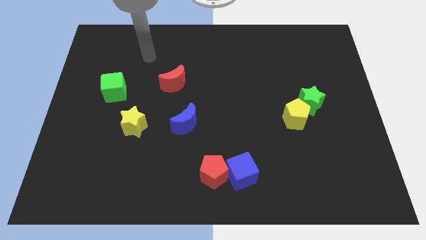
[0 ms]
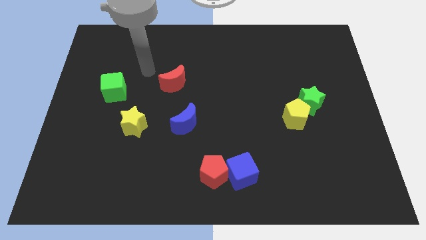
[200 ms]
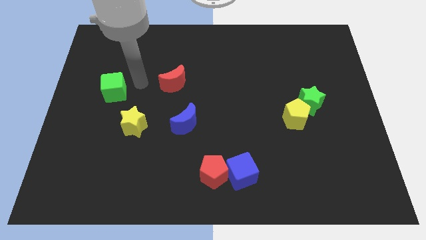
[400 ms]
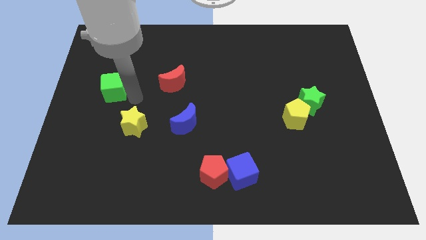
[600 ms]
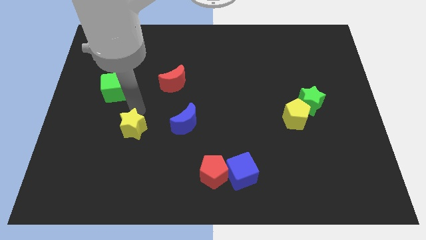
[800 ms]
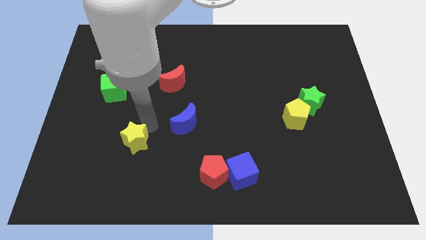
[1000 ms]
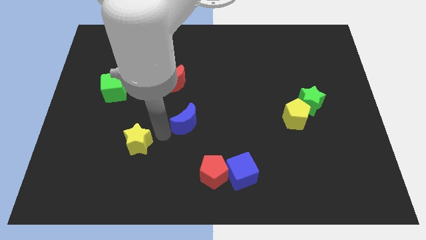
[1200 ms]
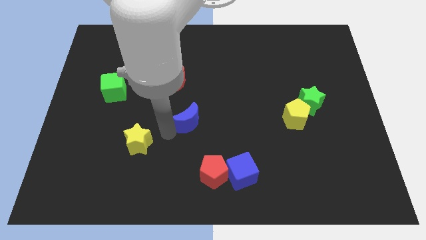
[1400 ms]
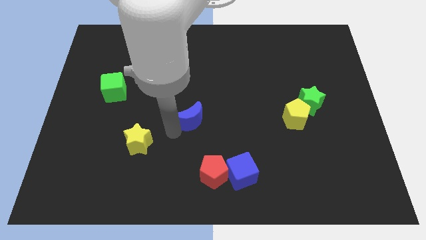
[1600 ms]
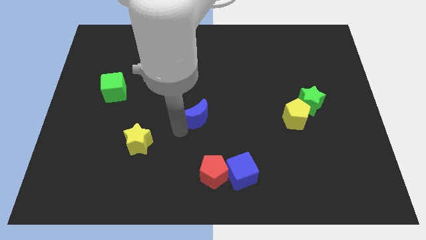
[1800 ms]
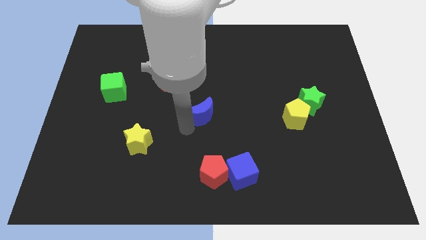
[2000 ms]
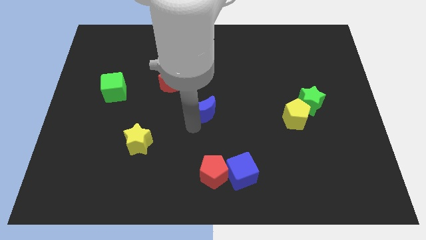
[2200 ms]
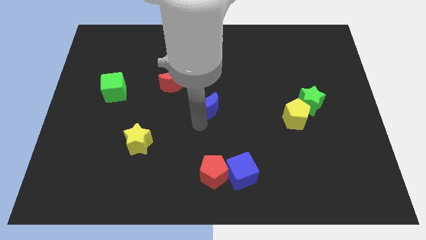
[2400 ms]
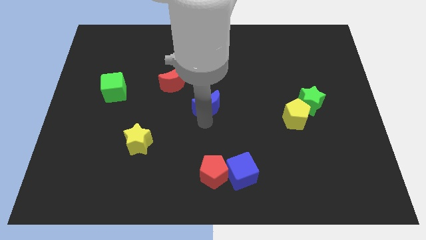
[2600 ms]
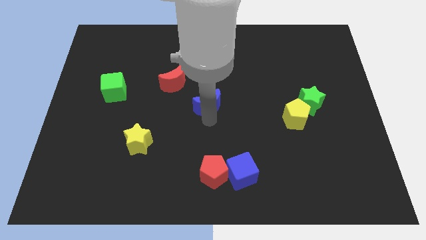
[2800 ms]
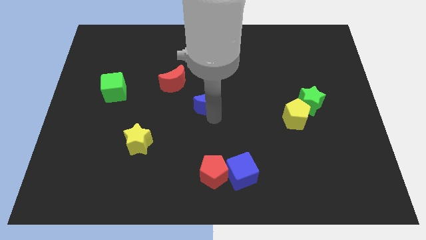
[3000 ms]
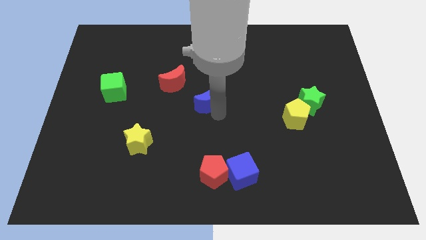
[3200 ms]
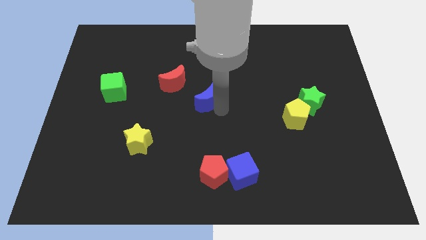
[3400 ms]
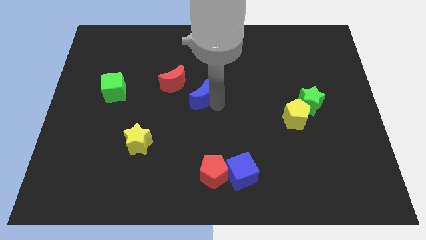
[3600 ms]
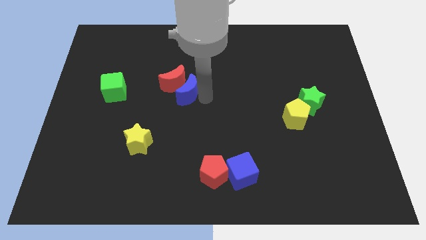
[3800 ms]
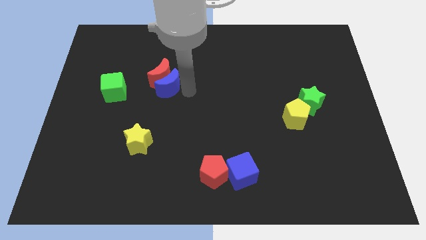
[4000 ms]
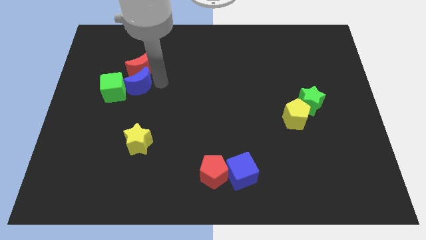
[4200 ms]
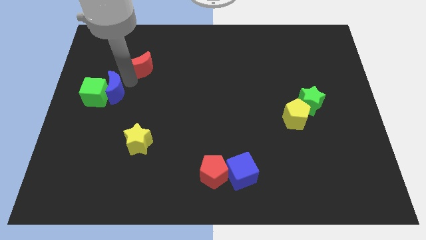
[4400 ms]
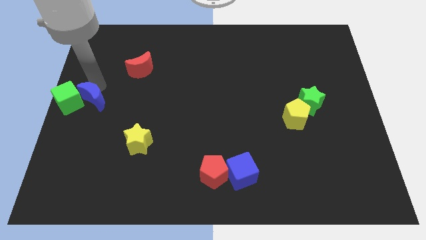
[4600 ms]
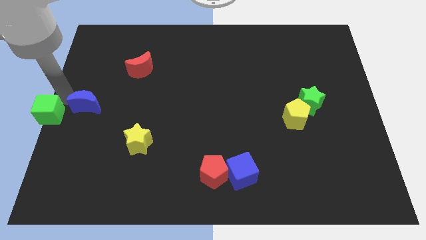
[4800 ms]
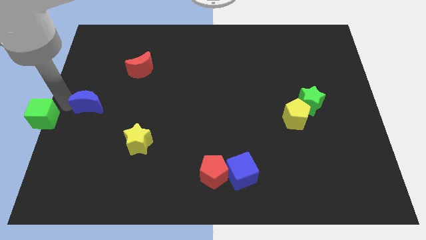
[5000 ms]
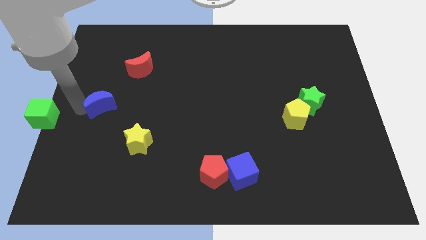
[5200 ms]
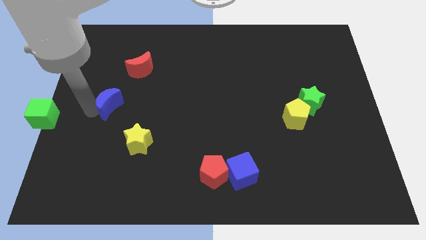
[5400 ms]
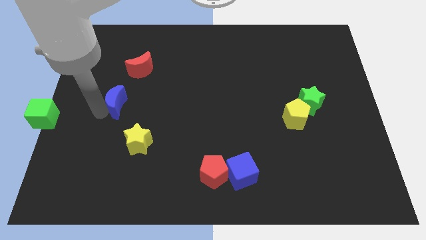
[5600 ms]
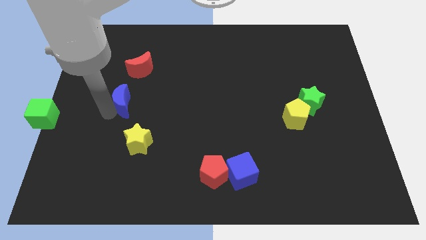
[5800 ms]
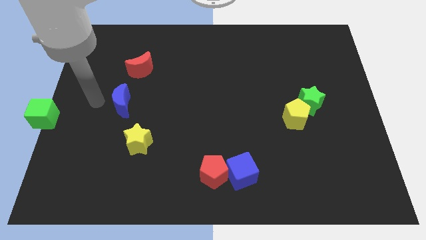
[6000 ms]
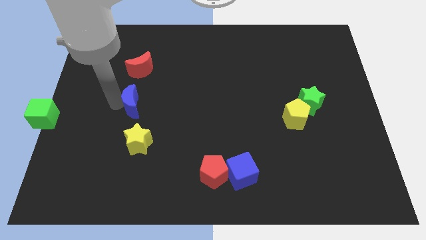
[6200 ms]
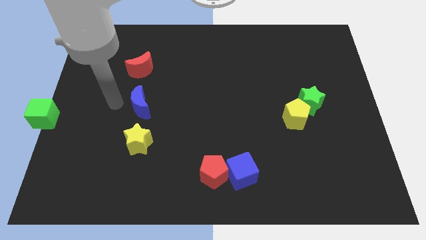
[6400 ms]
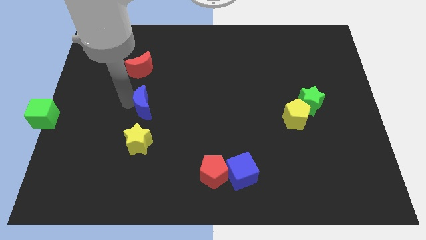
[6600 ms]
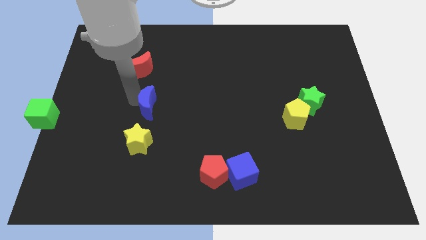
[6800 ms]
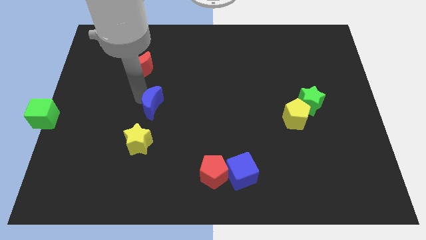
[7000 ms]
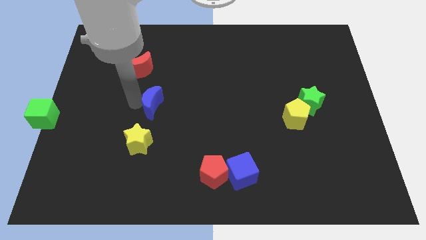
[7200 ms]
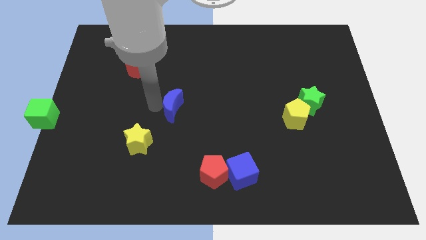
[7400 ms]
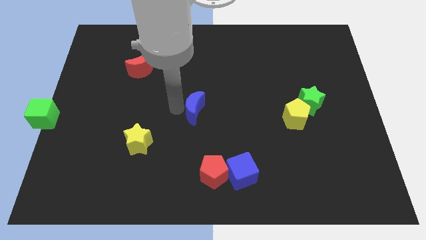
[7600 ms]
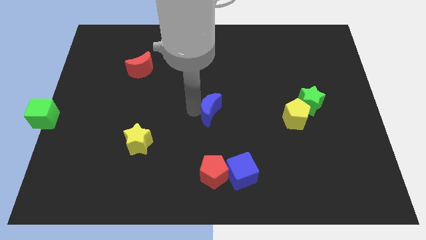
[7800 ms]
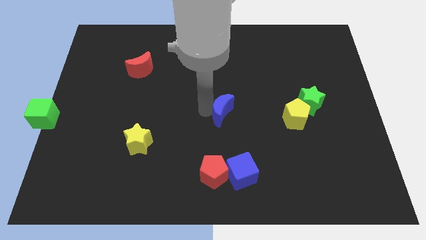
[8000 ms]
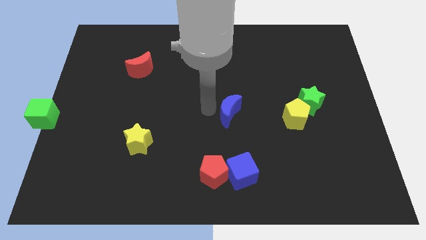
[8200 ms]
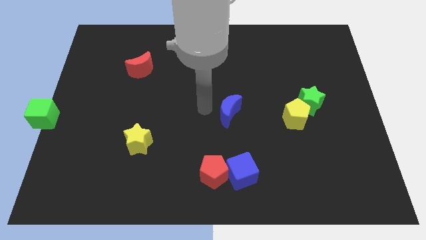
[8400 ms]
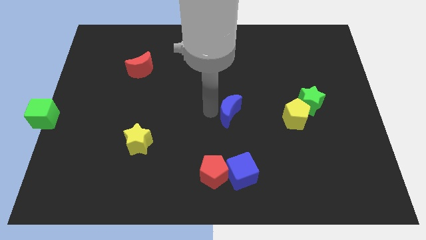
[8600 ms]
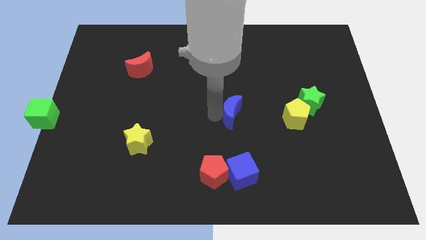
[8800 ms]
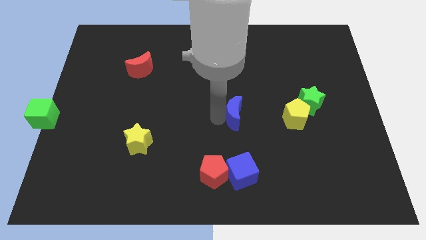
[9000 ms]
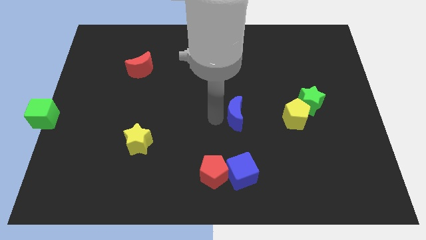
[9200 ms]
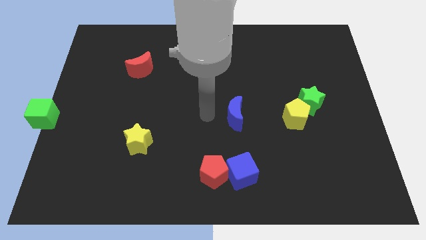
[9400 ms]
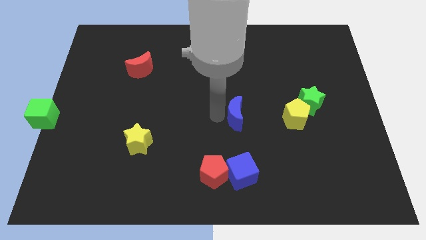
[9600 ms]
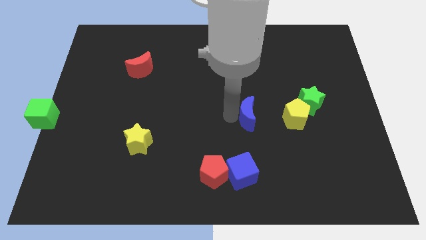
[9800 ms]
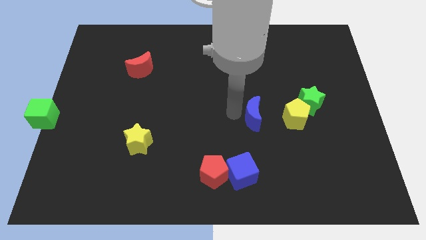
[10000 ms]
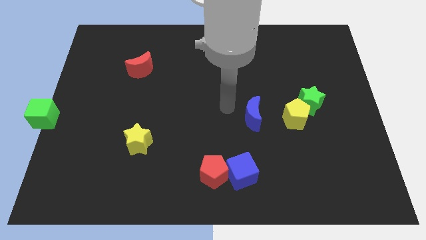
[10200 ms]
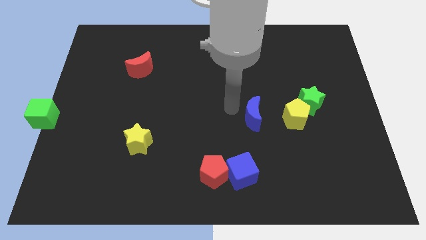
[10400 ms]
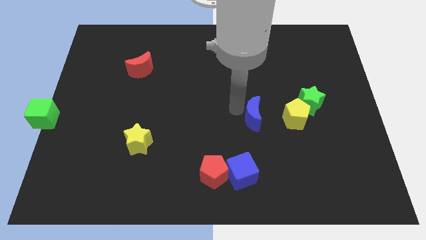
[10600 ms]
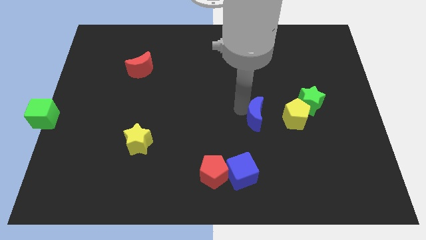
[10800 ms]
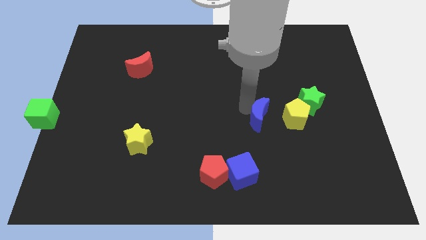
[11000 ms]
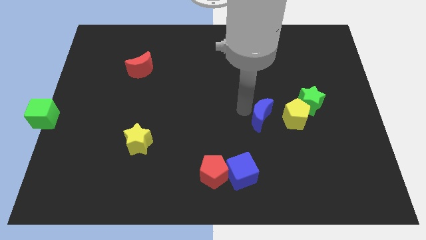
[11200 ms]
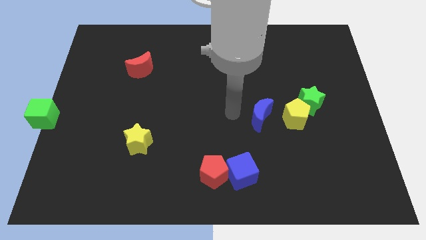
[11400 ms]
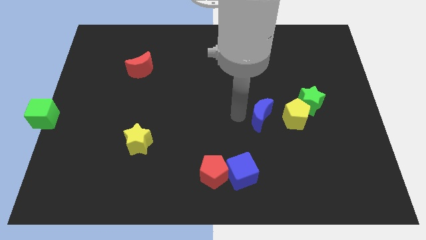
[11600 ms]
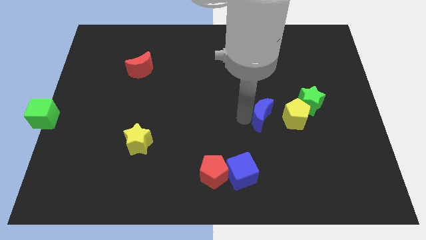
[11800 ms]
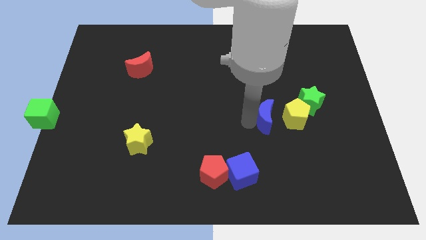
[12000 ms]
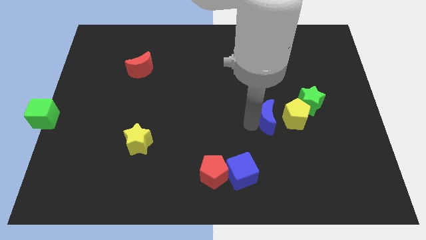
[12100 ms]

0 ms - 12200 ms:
push the blue moon to the bottom left side of the green star
